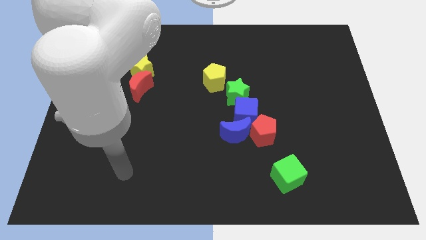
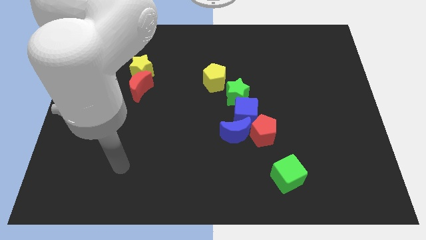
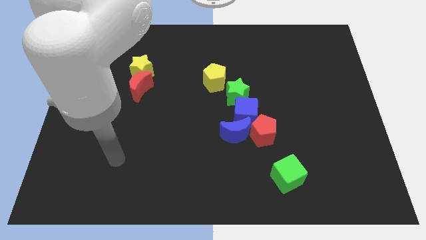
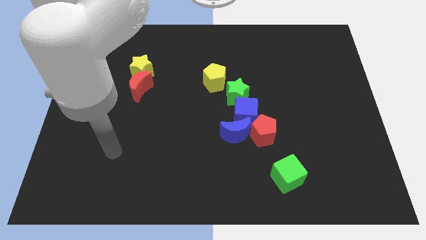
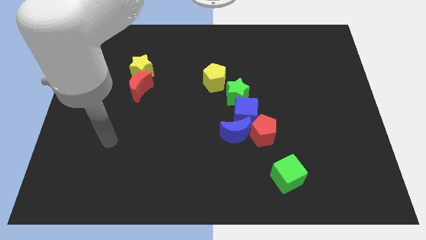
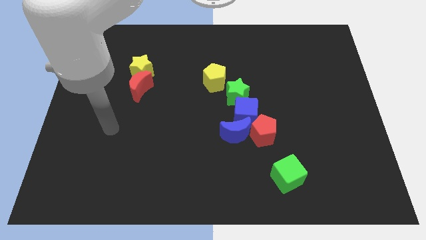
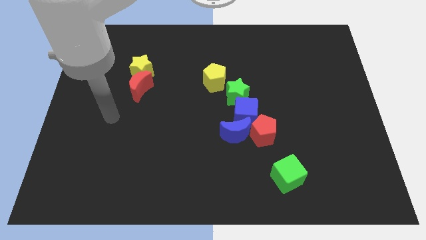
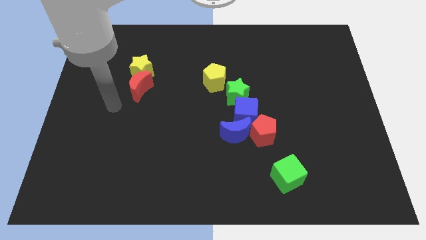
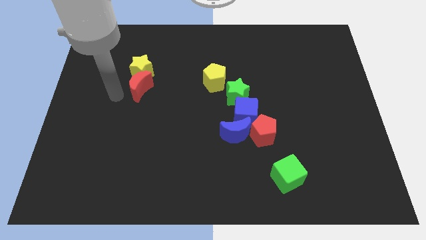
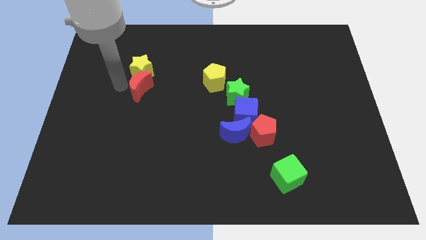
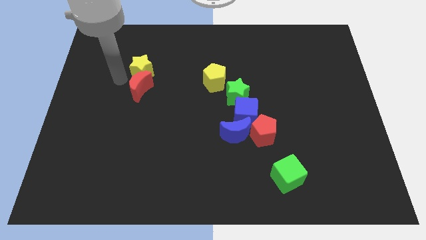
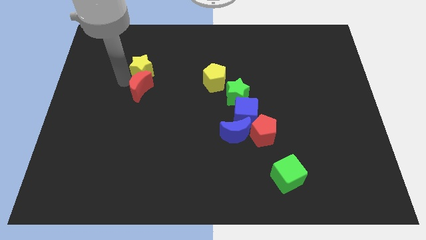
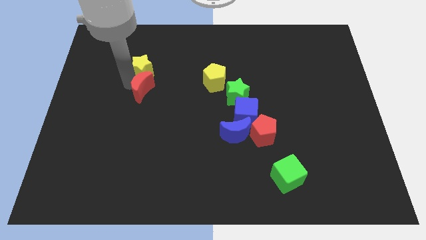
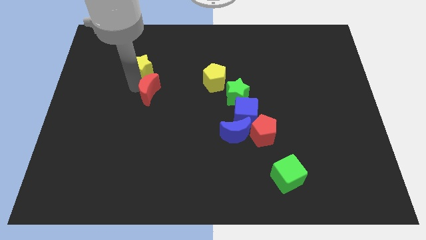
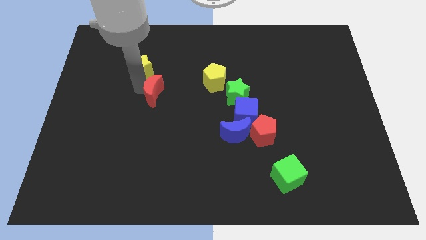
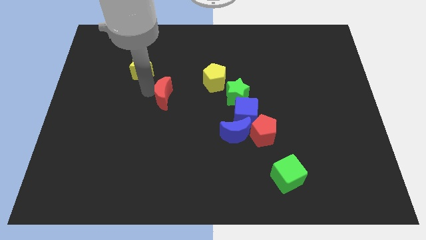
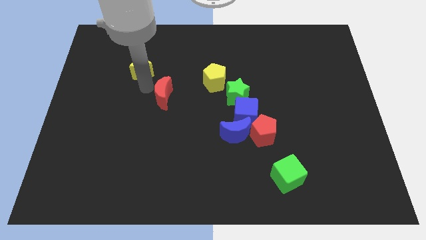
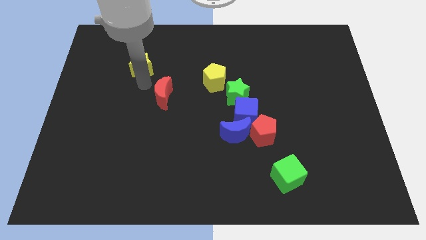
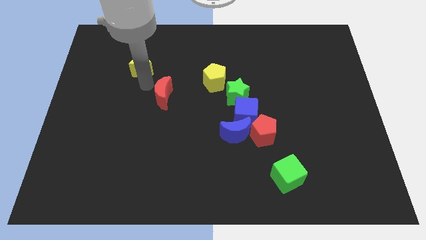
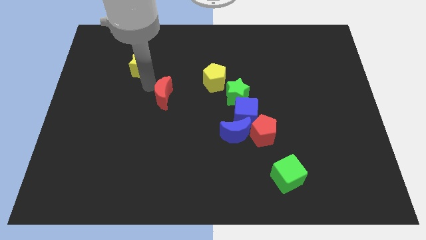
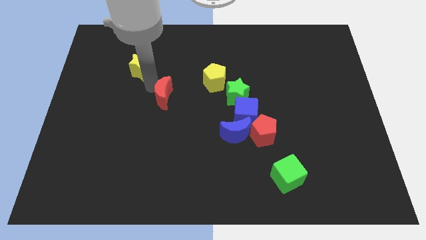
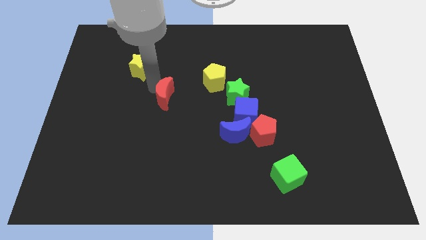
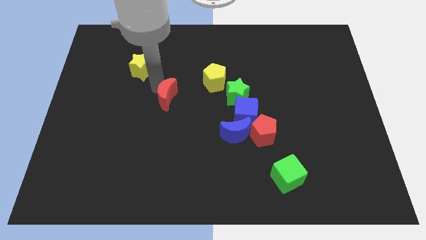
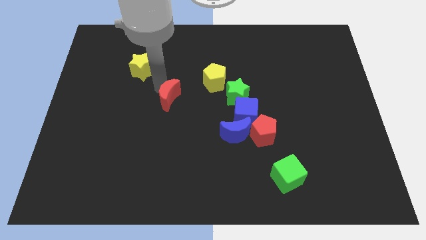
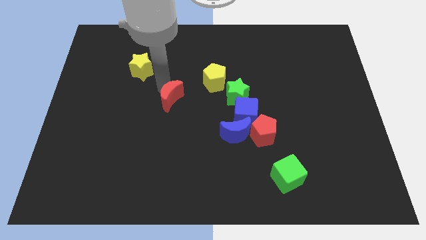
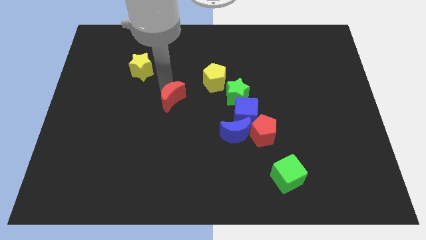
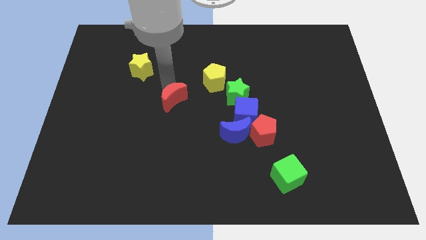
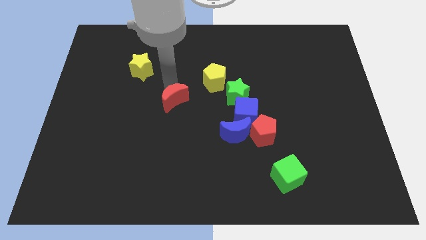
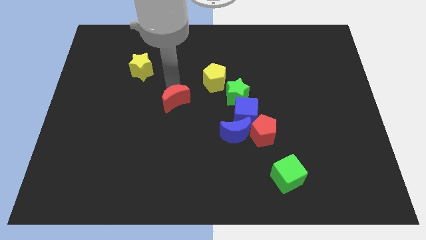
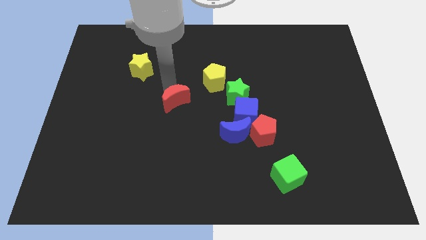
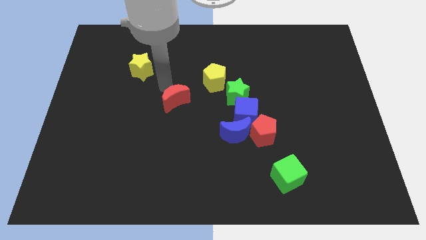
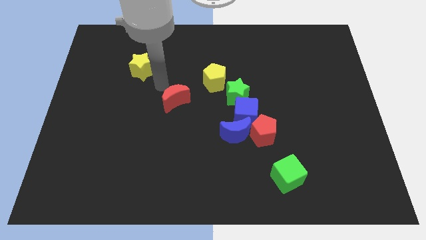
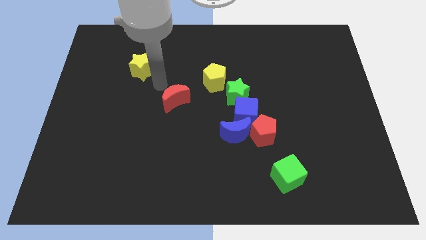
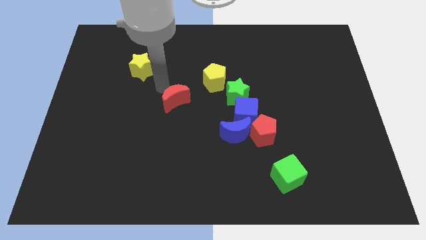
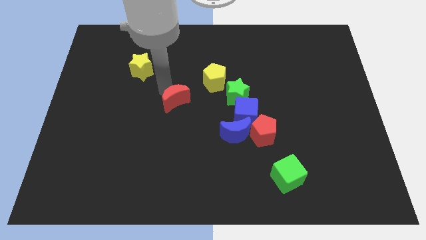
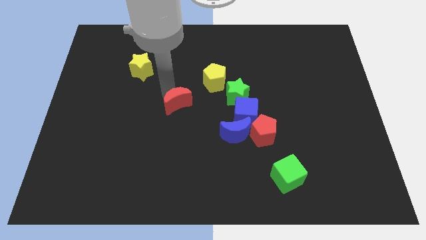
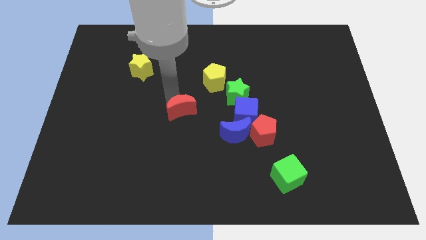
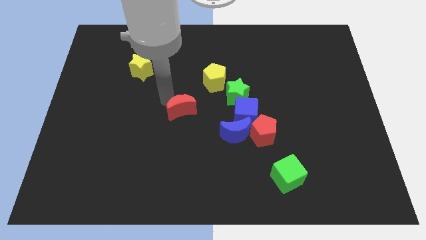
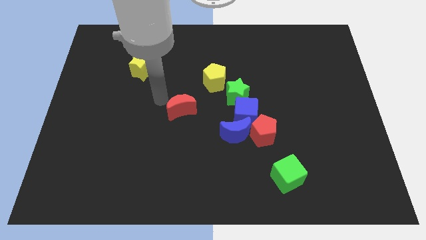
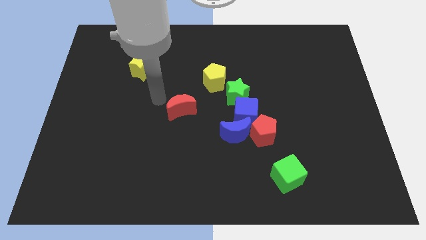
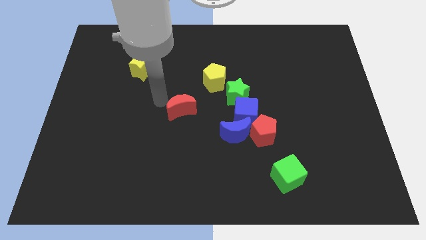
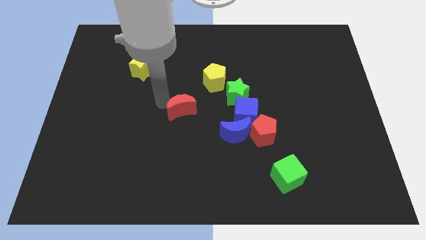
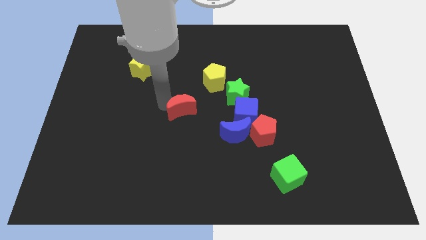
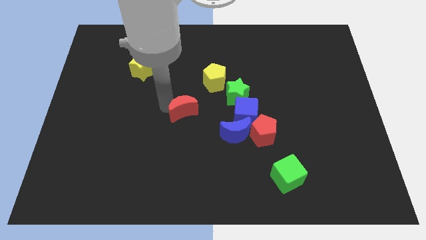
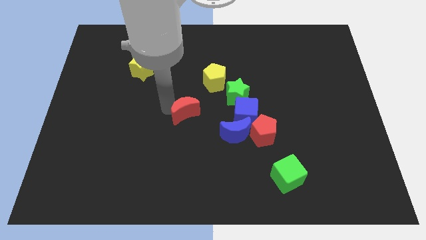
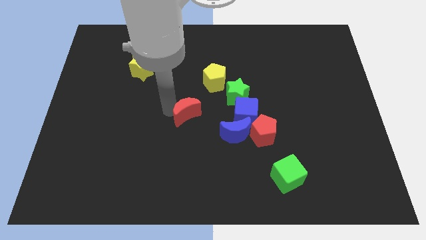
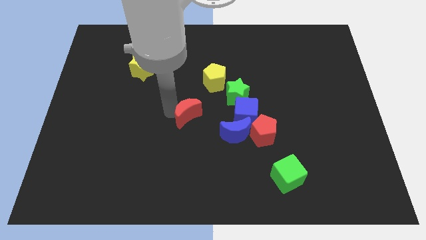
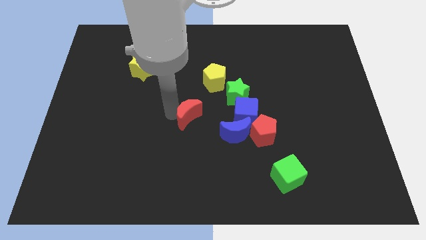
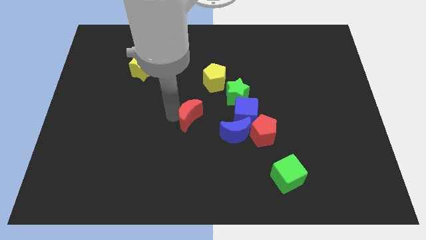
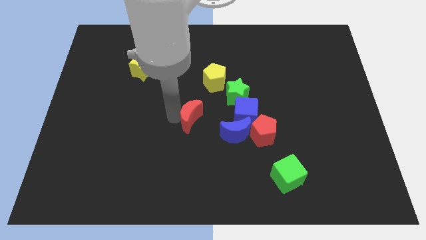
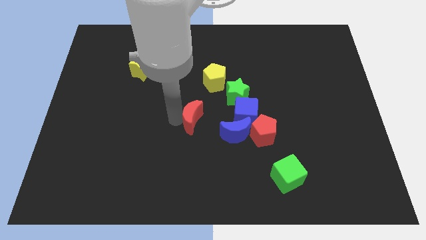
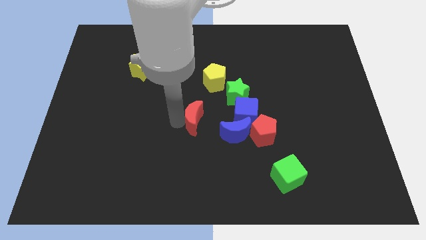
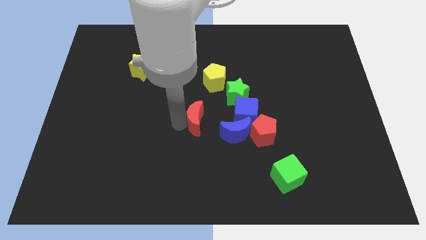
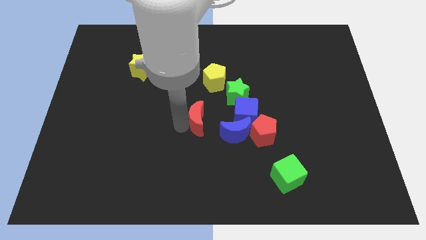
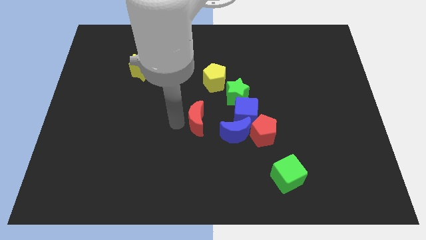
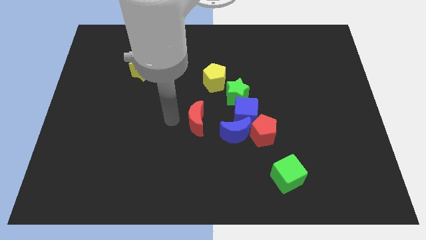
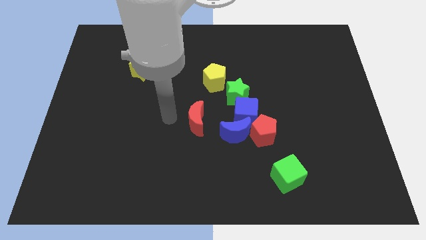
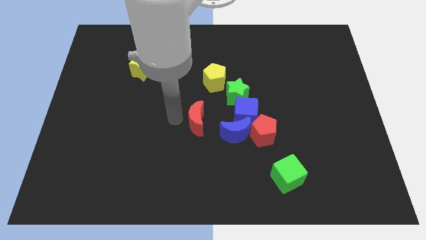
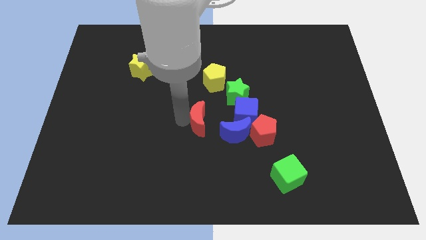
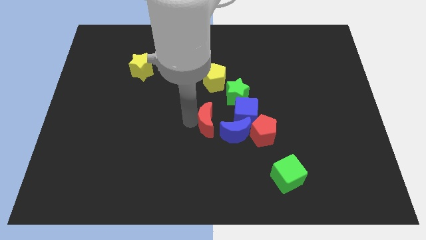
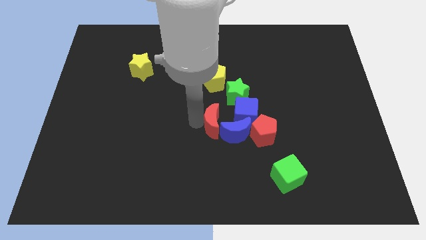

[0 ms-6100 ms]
put the red moon to the blue moon

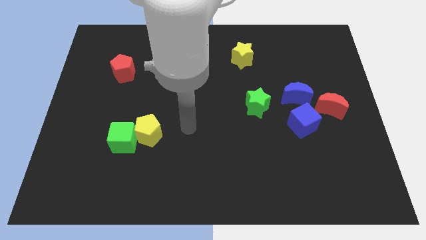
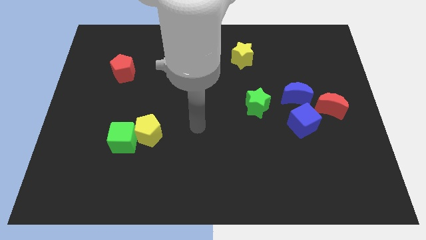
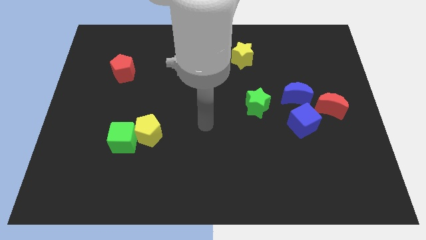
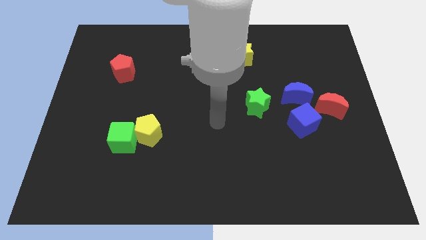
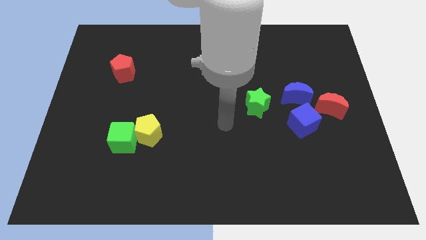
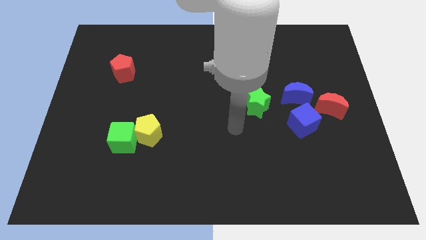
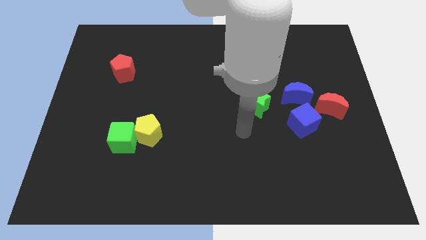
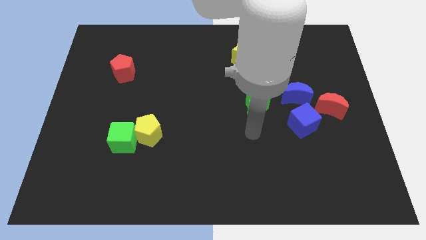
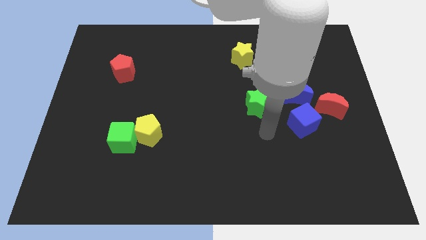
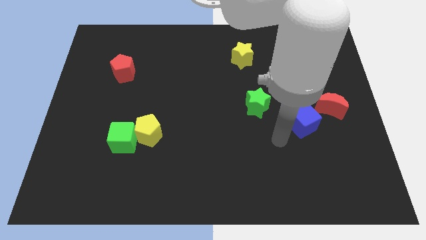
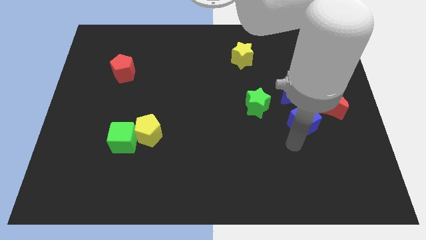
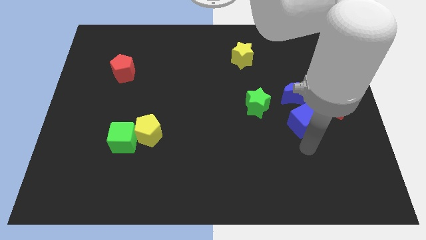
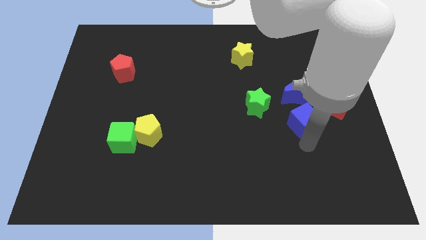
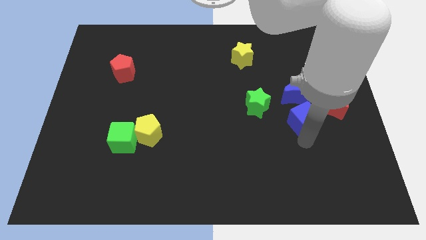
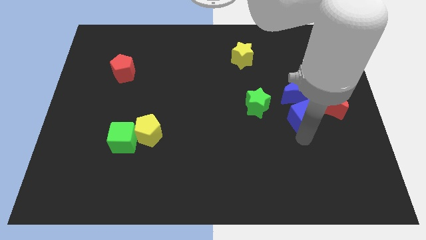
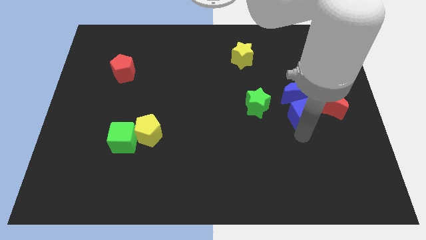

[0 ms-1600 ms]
slide the blue cube to the blue moon
